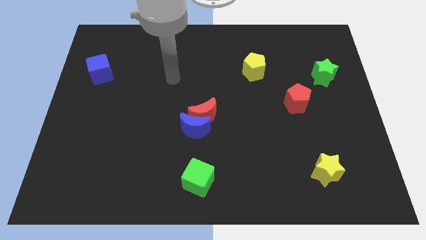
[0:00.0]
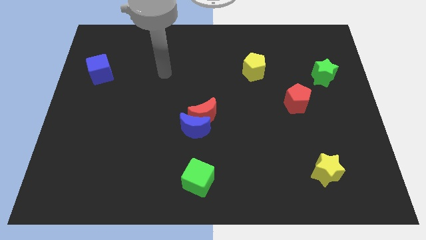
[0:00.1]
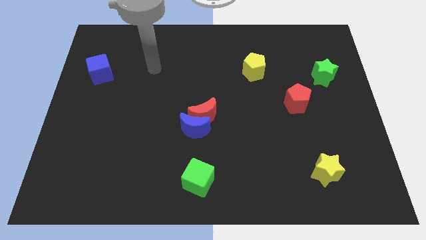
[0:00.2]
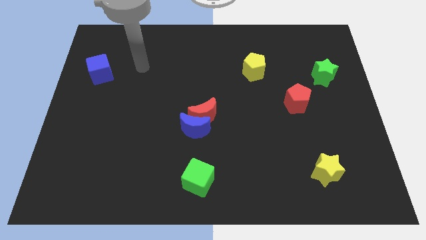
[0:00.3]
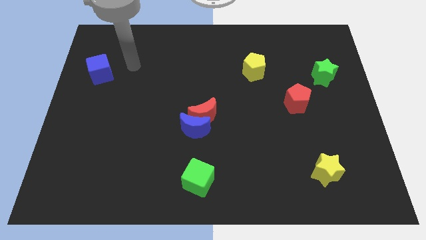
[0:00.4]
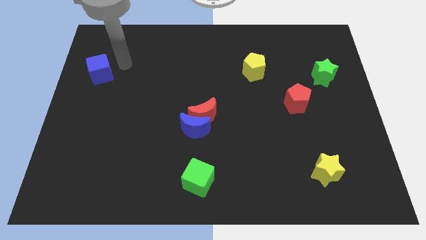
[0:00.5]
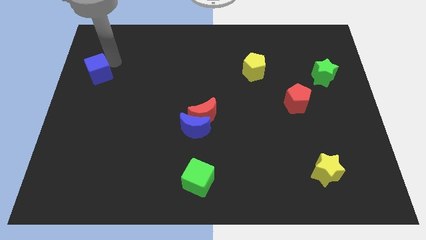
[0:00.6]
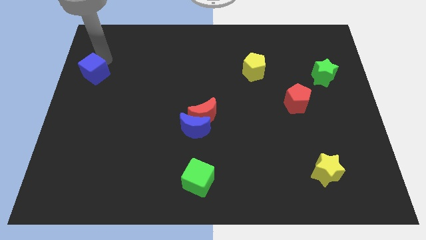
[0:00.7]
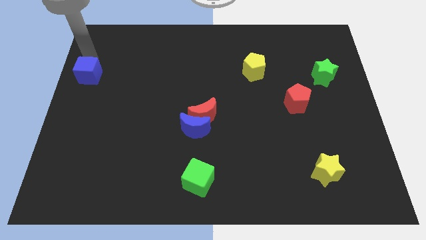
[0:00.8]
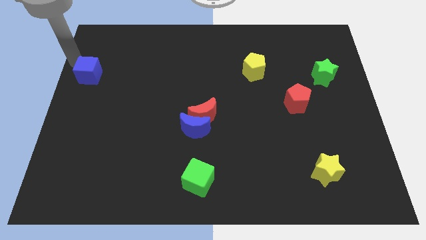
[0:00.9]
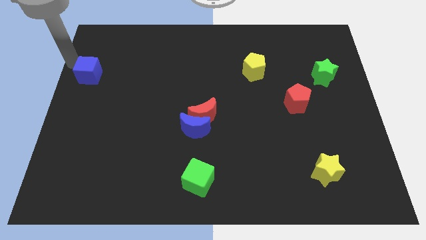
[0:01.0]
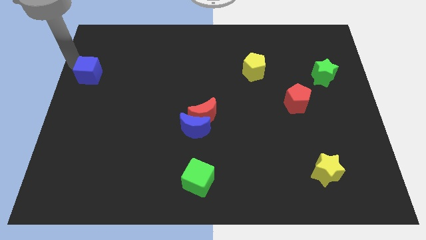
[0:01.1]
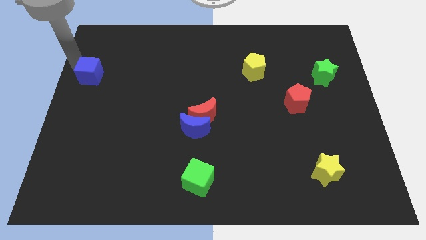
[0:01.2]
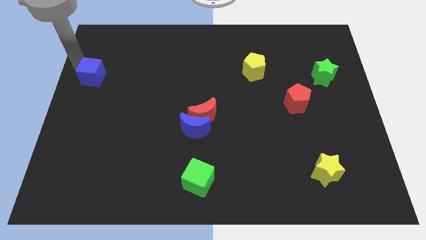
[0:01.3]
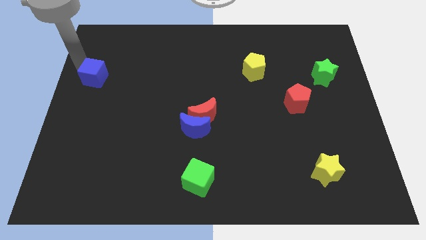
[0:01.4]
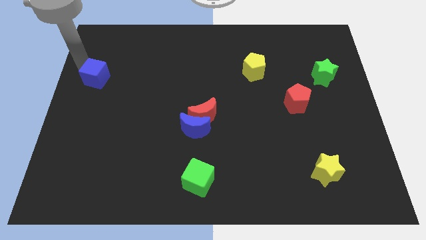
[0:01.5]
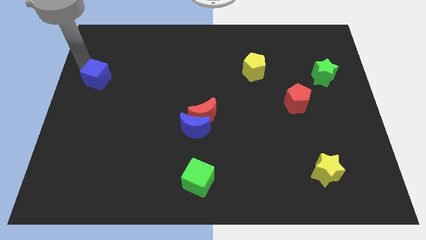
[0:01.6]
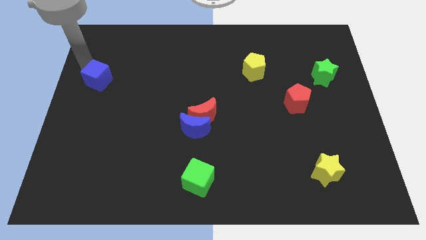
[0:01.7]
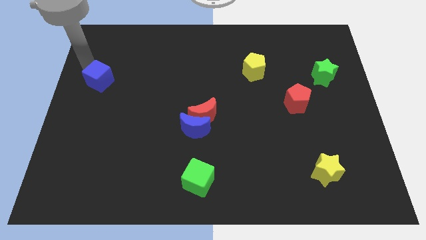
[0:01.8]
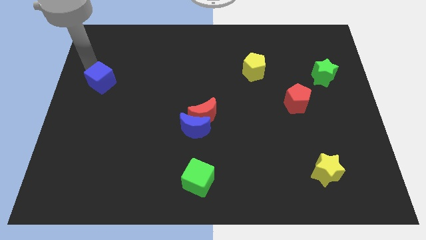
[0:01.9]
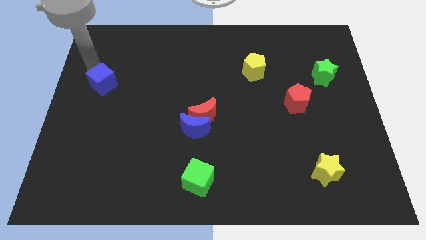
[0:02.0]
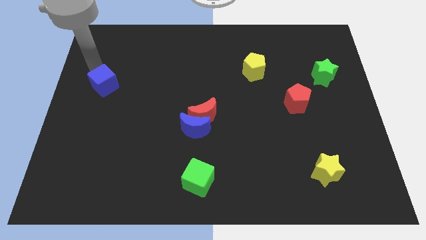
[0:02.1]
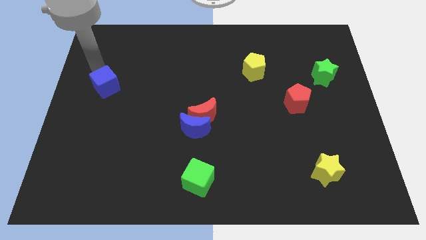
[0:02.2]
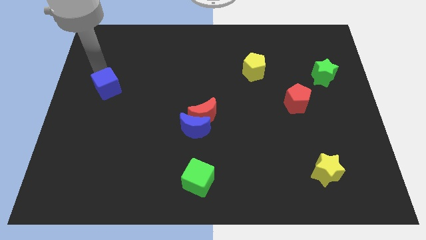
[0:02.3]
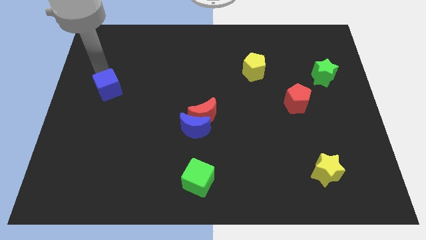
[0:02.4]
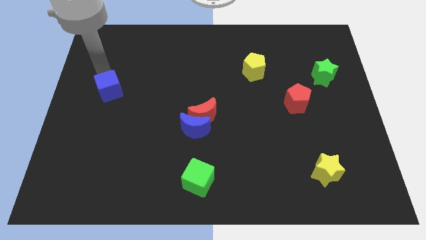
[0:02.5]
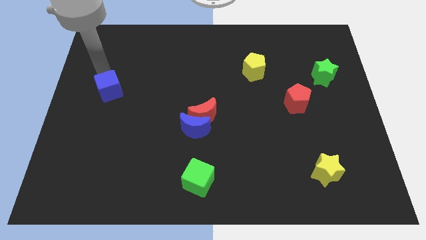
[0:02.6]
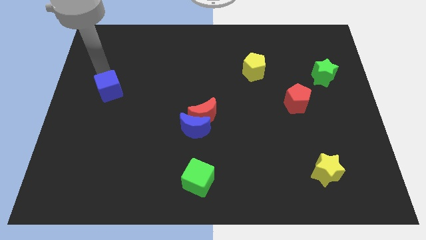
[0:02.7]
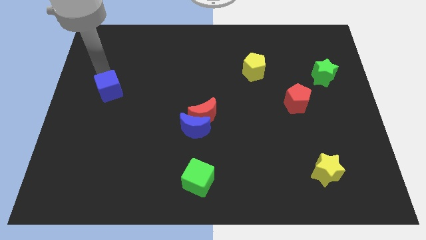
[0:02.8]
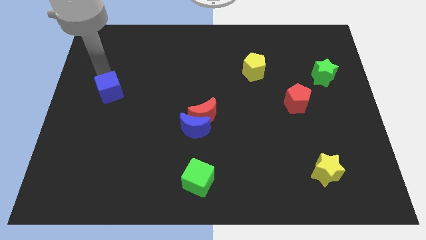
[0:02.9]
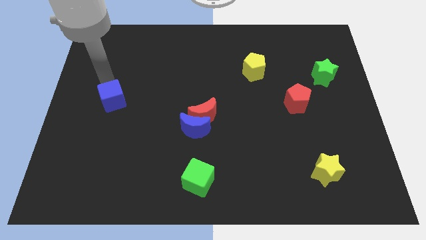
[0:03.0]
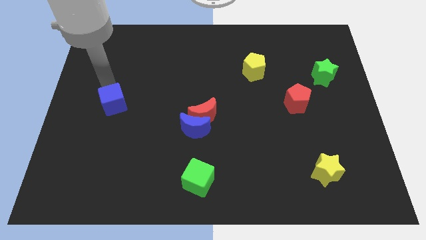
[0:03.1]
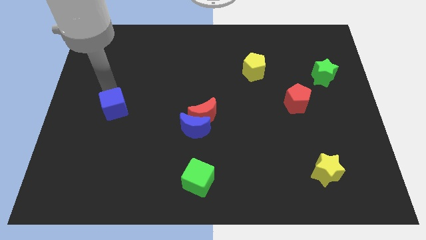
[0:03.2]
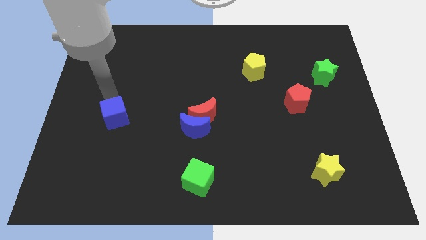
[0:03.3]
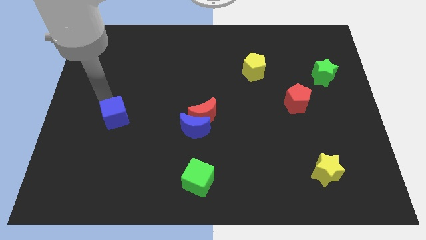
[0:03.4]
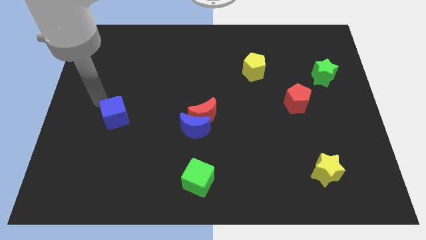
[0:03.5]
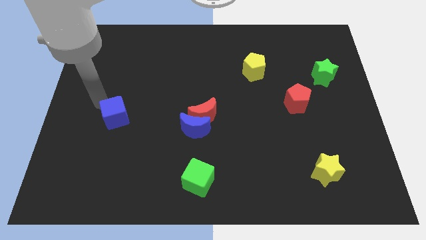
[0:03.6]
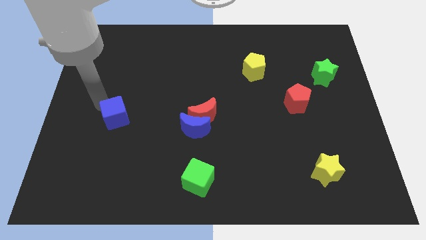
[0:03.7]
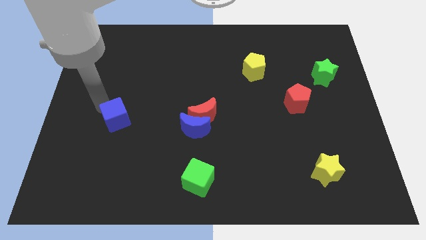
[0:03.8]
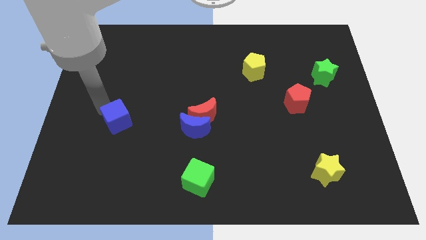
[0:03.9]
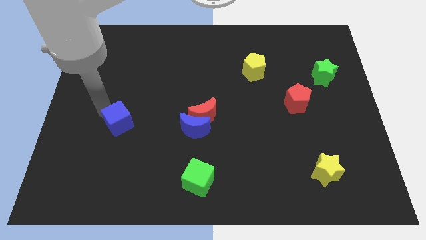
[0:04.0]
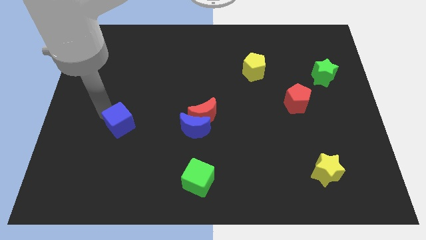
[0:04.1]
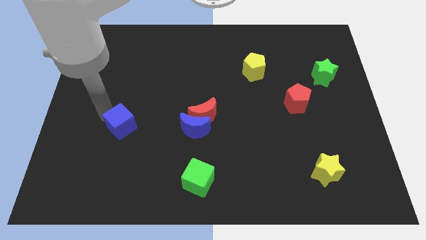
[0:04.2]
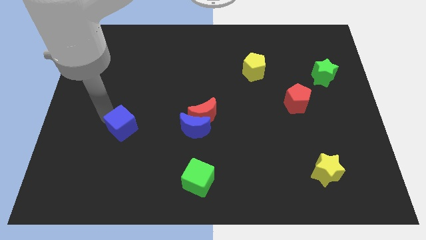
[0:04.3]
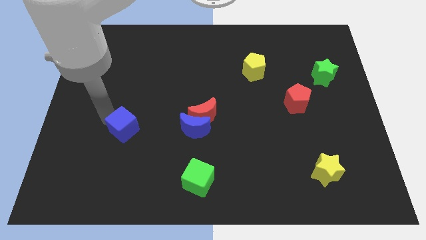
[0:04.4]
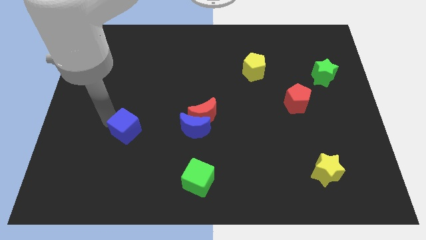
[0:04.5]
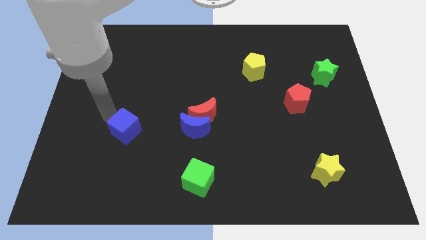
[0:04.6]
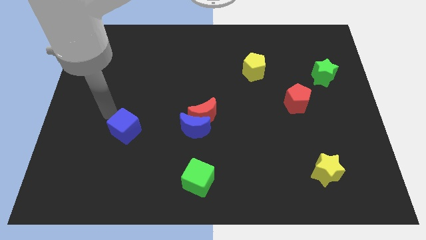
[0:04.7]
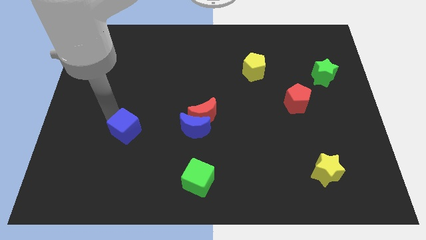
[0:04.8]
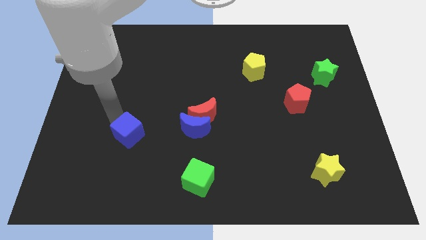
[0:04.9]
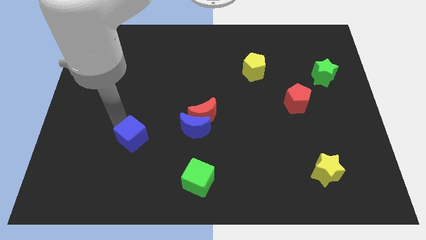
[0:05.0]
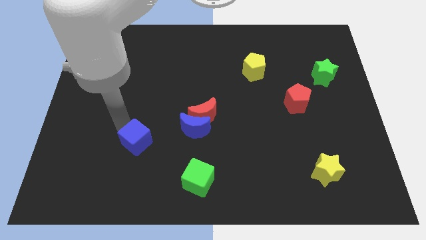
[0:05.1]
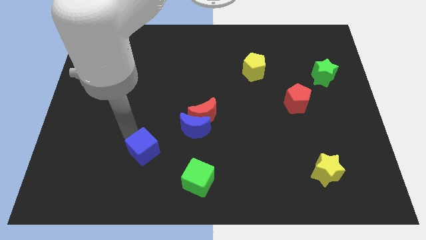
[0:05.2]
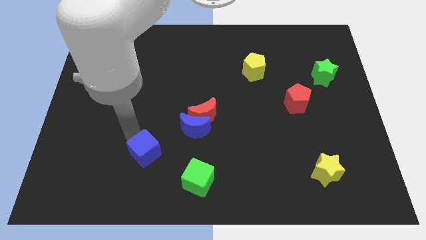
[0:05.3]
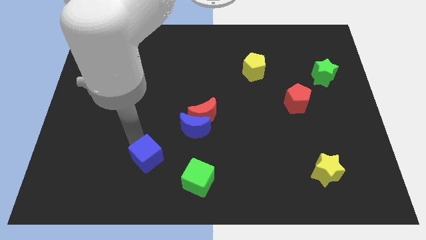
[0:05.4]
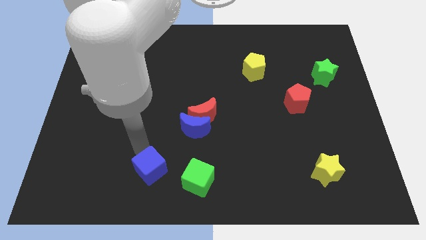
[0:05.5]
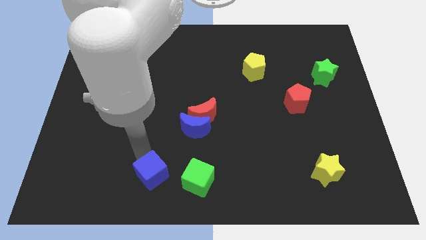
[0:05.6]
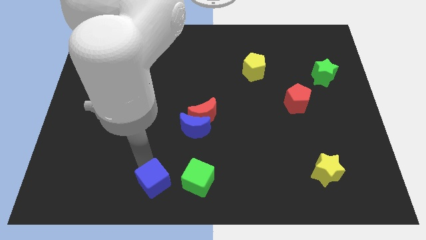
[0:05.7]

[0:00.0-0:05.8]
push the blue cube to the bottom side

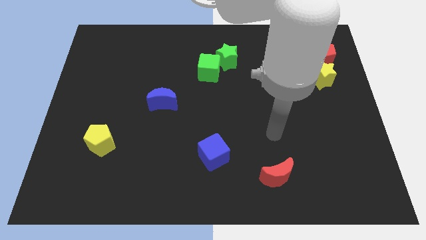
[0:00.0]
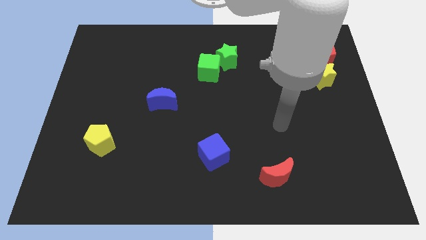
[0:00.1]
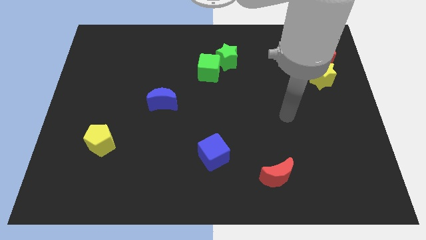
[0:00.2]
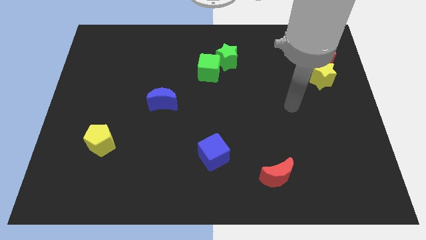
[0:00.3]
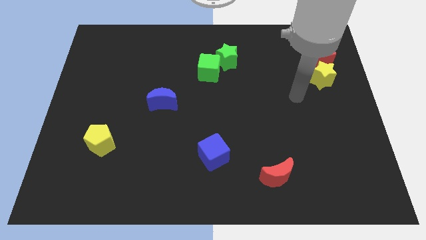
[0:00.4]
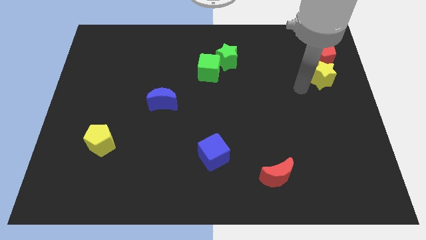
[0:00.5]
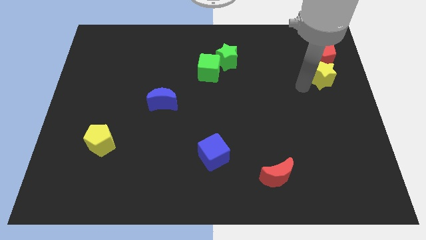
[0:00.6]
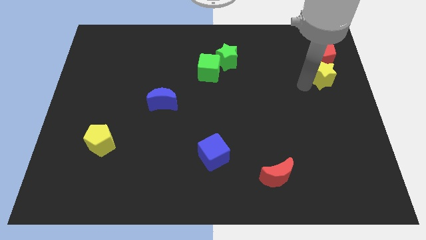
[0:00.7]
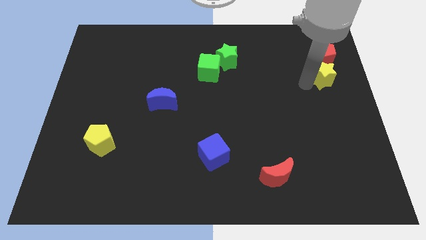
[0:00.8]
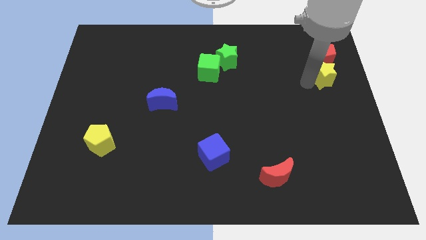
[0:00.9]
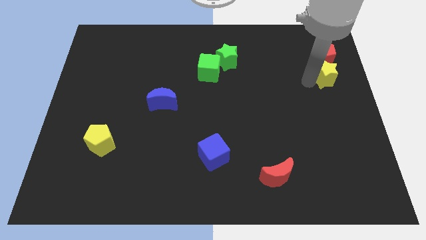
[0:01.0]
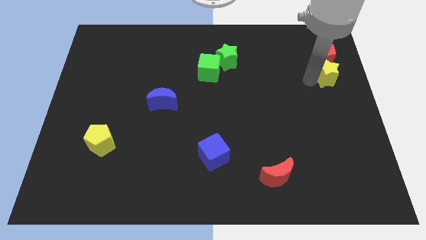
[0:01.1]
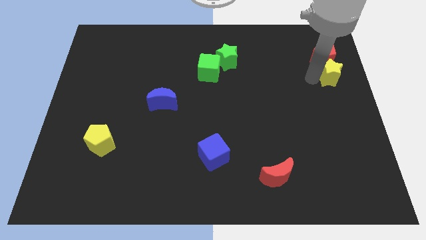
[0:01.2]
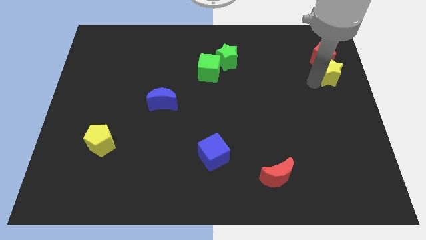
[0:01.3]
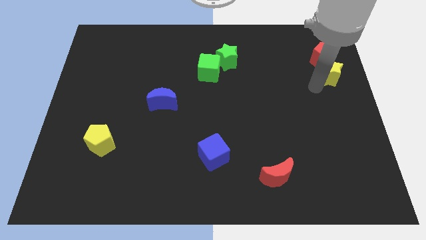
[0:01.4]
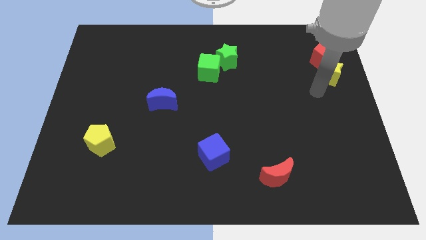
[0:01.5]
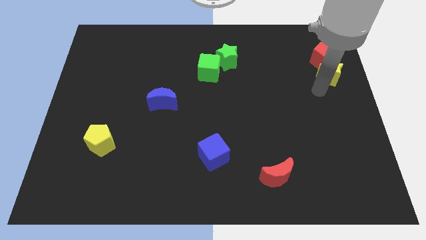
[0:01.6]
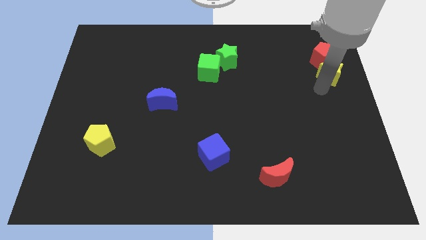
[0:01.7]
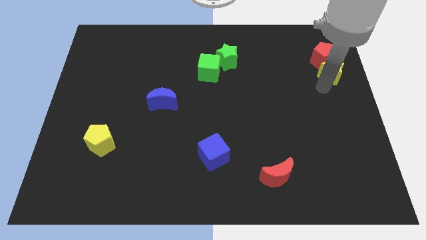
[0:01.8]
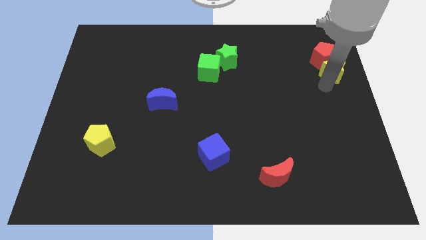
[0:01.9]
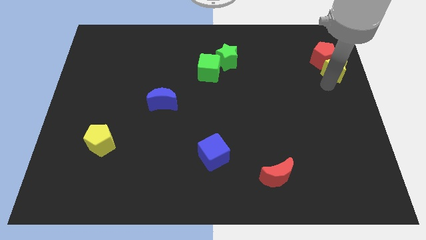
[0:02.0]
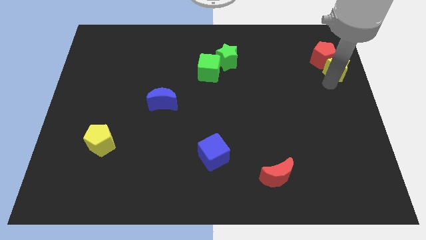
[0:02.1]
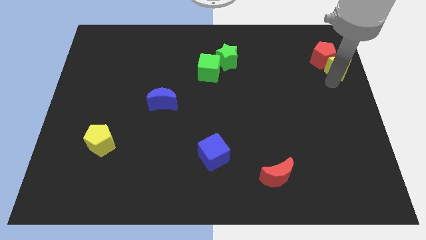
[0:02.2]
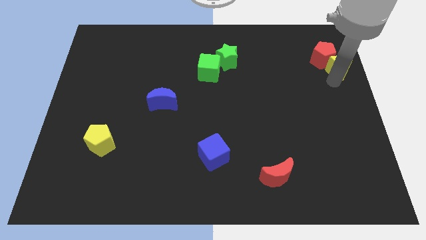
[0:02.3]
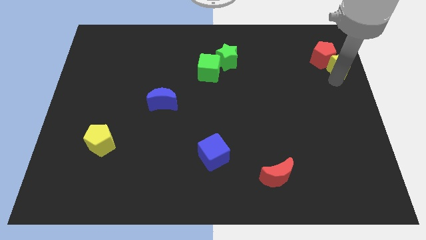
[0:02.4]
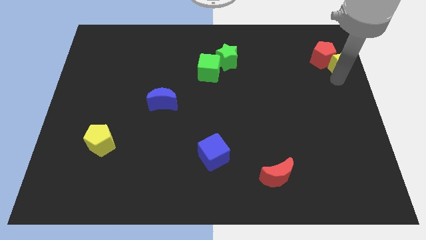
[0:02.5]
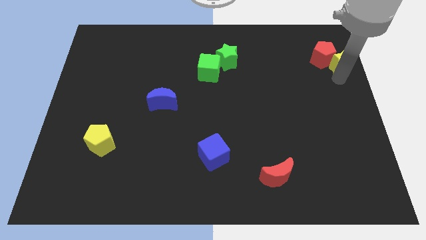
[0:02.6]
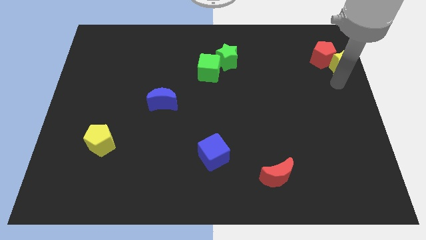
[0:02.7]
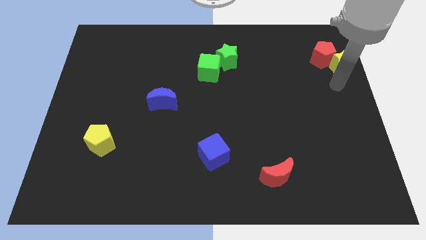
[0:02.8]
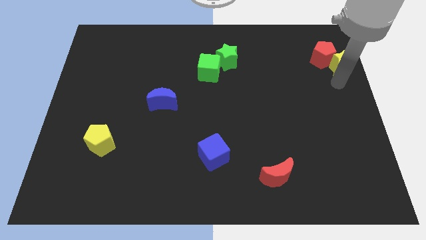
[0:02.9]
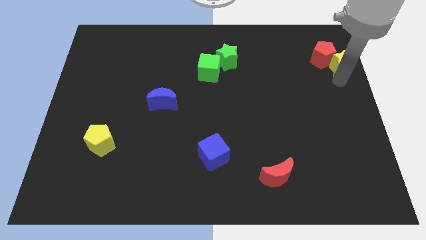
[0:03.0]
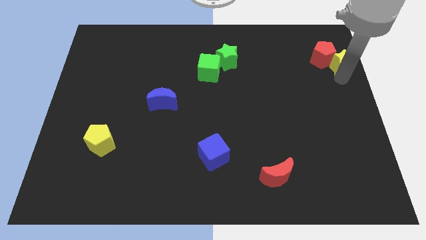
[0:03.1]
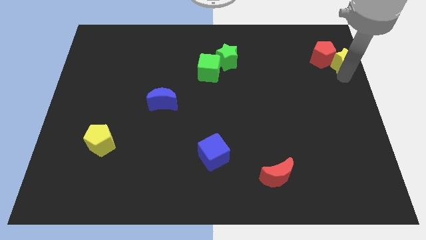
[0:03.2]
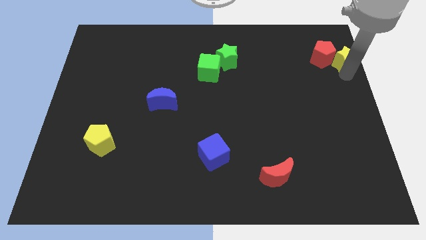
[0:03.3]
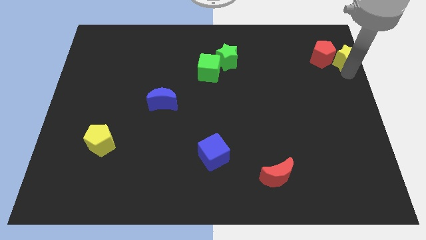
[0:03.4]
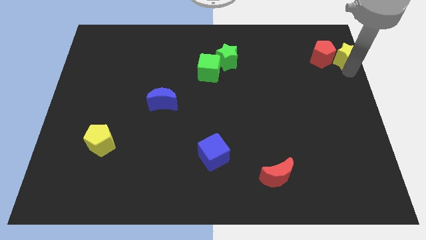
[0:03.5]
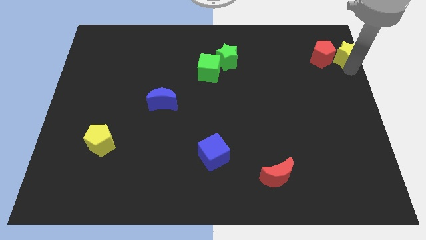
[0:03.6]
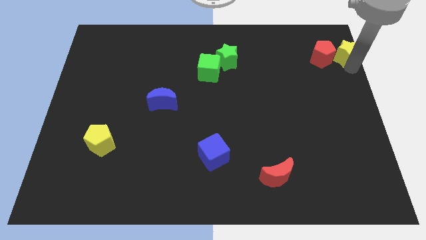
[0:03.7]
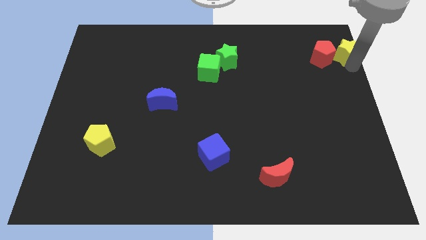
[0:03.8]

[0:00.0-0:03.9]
push the yellow star to the top right
